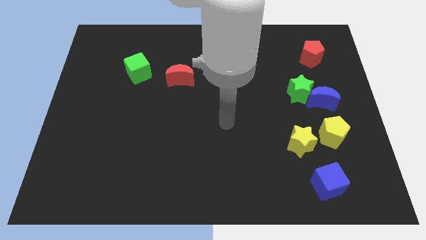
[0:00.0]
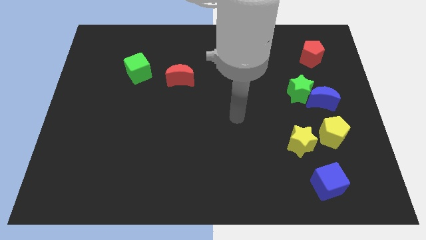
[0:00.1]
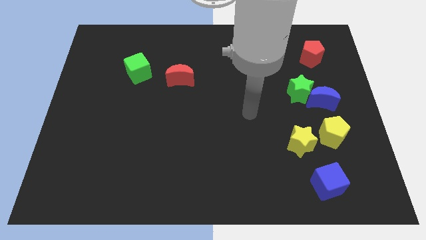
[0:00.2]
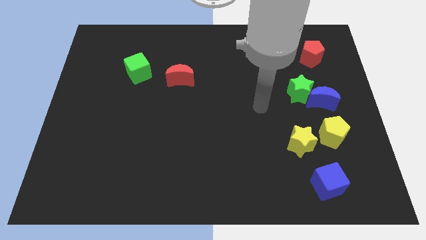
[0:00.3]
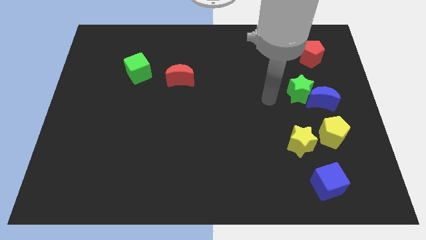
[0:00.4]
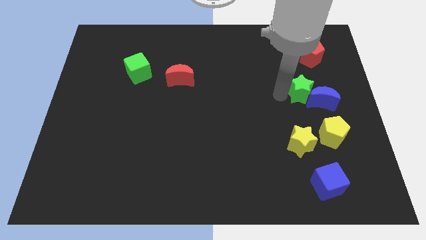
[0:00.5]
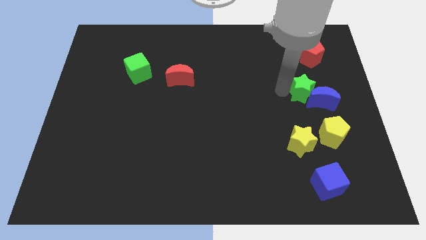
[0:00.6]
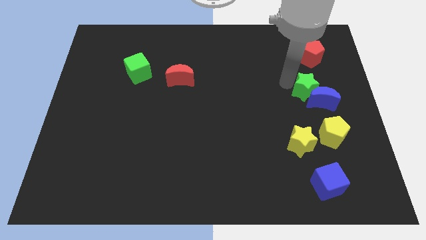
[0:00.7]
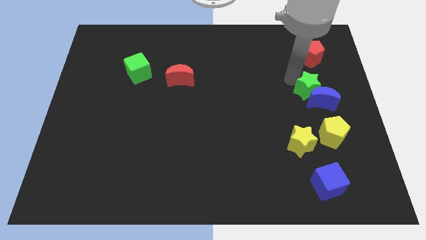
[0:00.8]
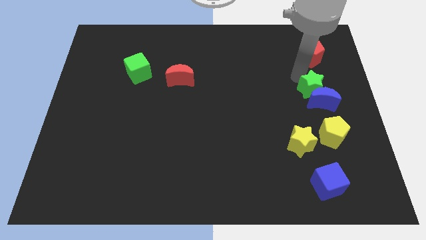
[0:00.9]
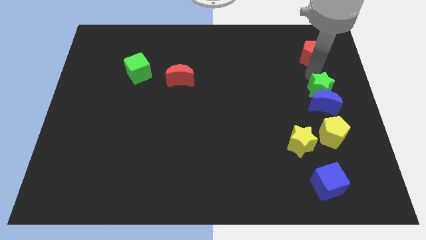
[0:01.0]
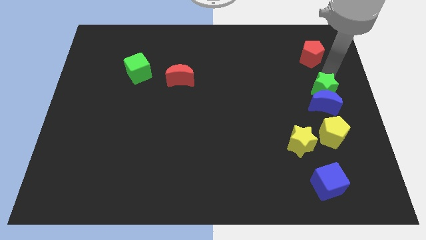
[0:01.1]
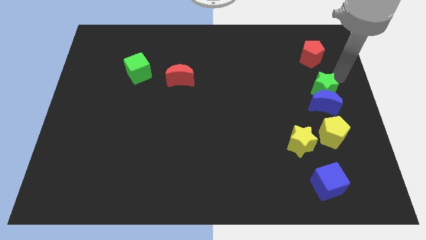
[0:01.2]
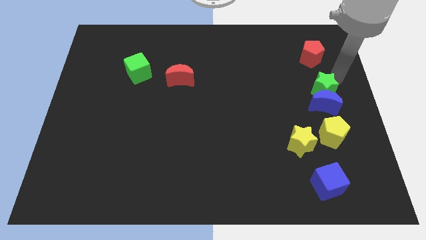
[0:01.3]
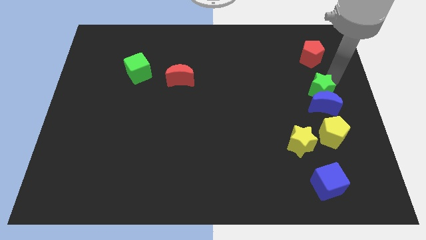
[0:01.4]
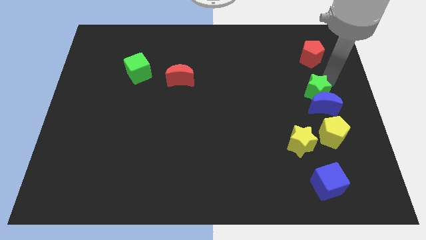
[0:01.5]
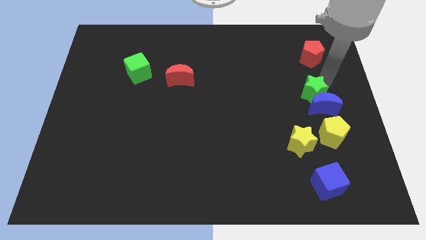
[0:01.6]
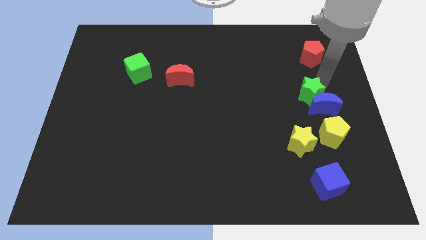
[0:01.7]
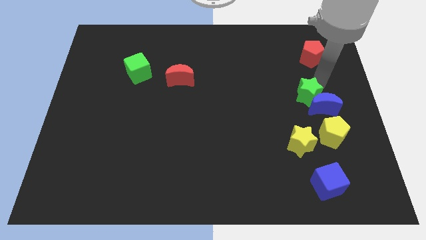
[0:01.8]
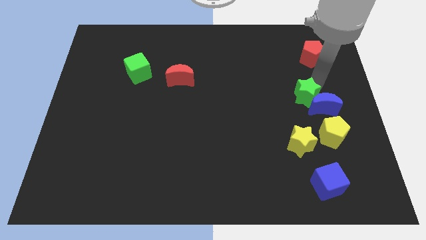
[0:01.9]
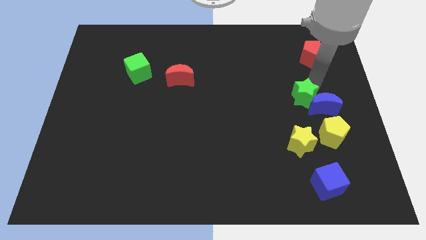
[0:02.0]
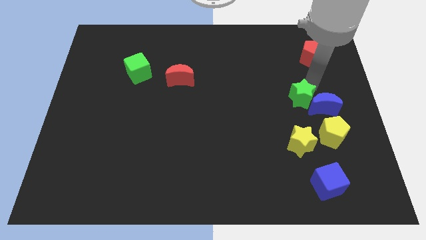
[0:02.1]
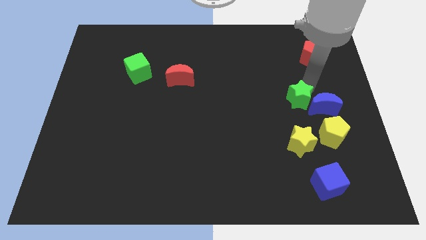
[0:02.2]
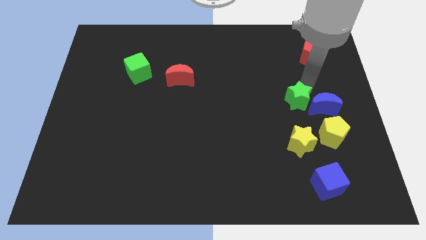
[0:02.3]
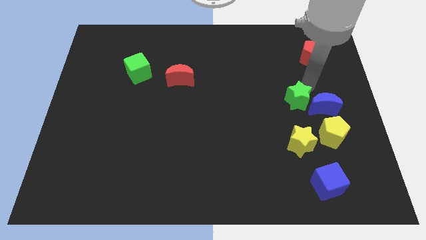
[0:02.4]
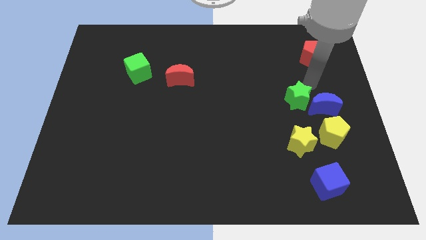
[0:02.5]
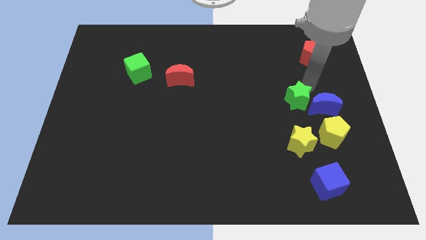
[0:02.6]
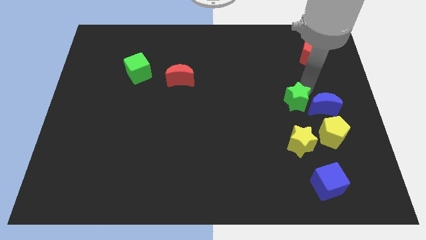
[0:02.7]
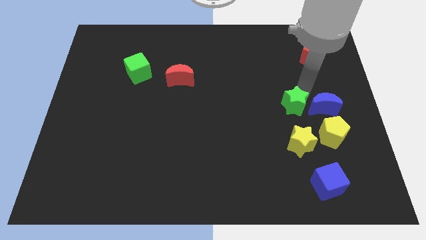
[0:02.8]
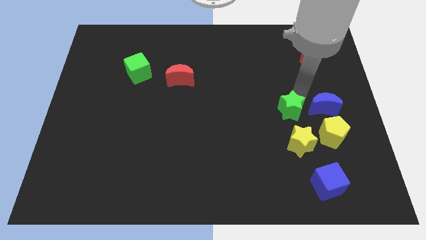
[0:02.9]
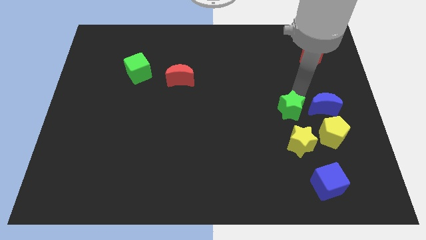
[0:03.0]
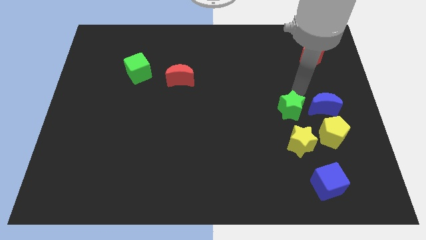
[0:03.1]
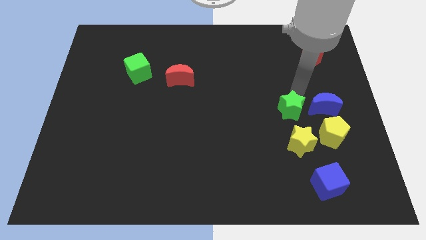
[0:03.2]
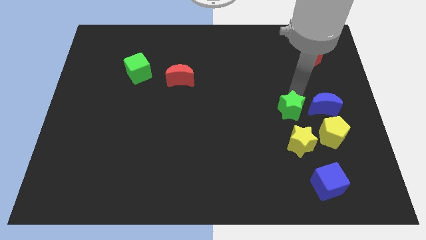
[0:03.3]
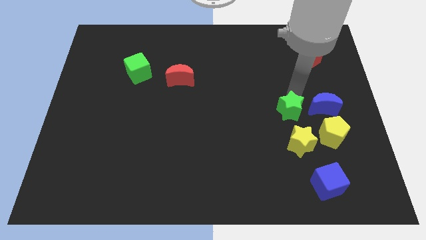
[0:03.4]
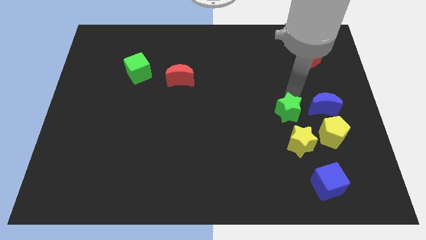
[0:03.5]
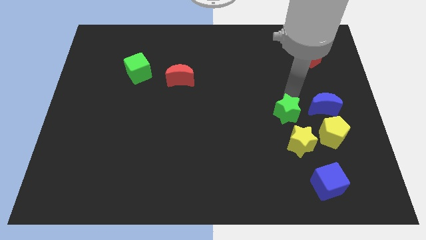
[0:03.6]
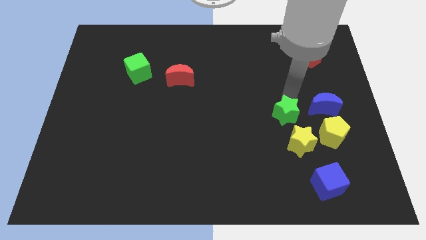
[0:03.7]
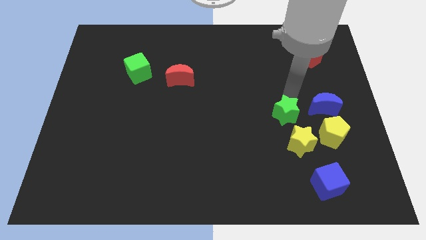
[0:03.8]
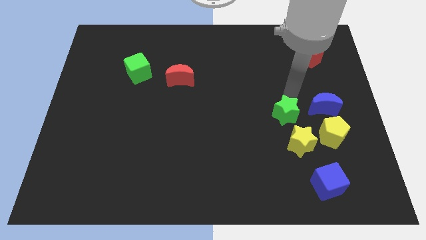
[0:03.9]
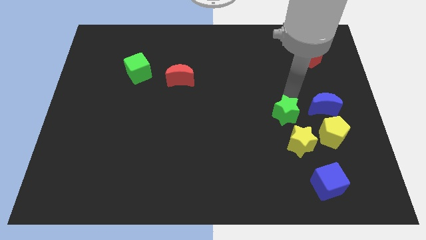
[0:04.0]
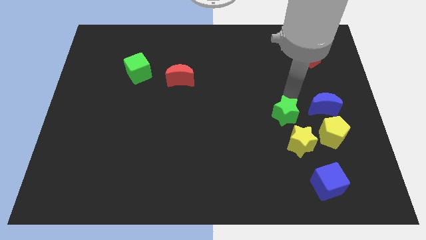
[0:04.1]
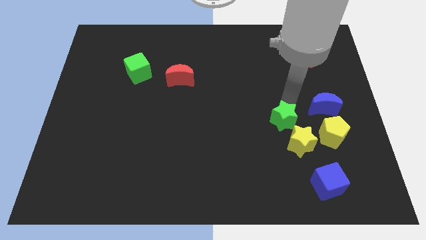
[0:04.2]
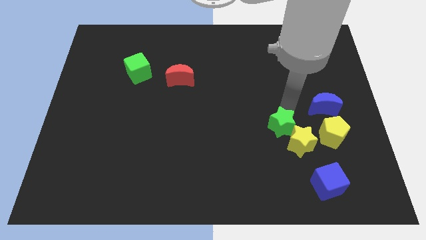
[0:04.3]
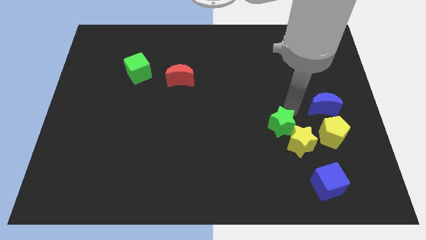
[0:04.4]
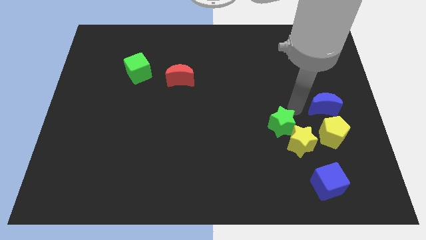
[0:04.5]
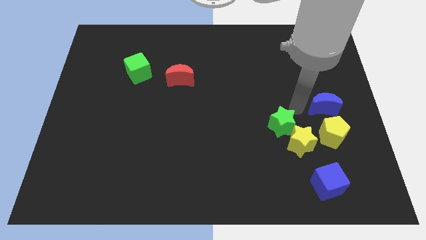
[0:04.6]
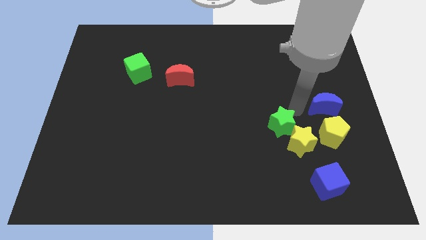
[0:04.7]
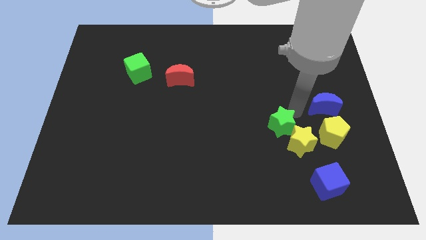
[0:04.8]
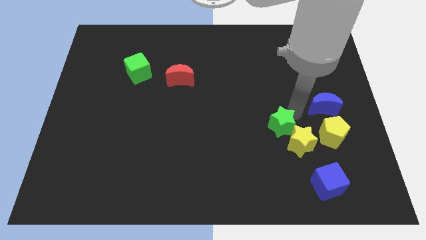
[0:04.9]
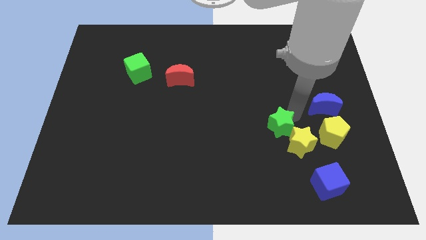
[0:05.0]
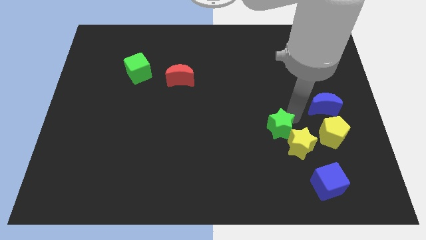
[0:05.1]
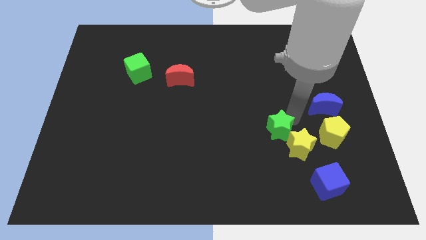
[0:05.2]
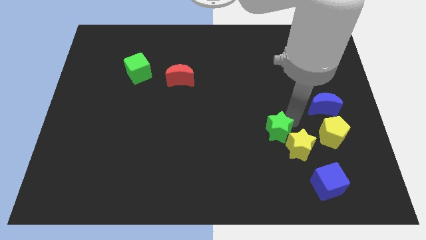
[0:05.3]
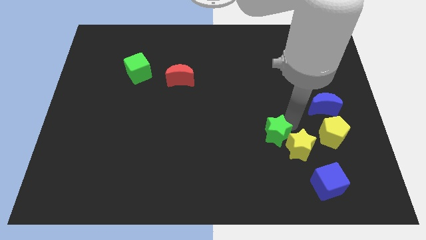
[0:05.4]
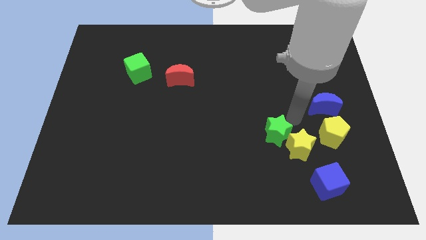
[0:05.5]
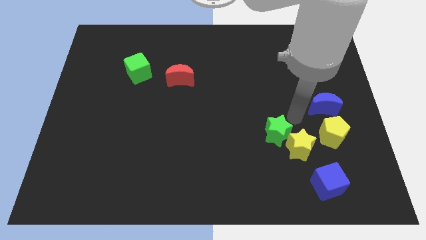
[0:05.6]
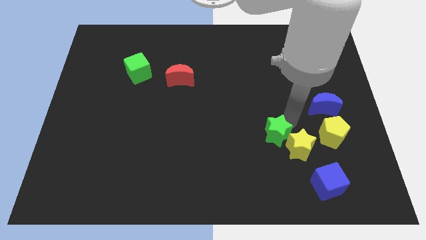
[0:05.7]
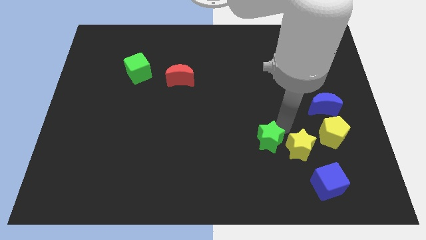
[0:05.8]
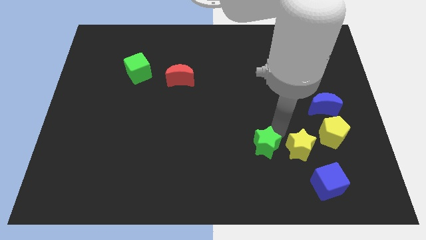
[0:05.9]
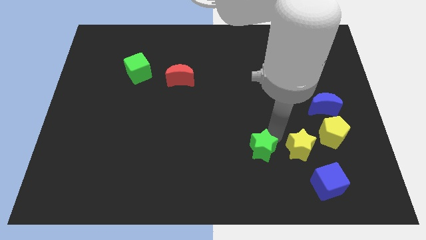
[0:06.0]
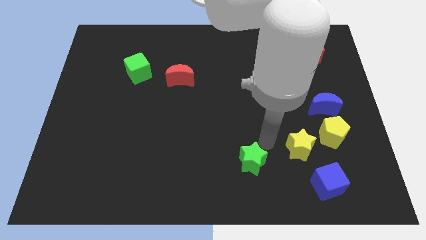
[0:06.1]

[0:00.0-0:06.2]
push the green star to the bottom side

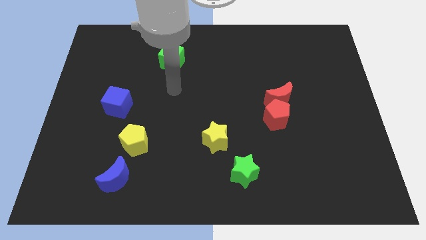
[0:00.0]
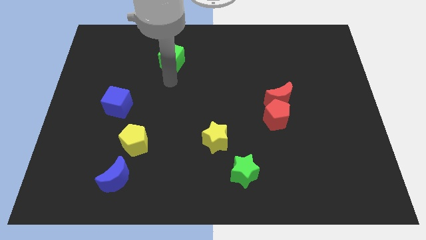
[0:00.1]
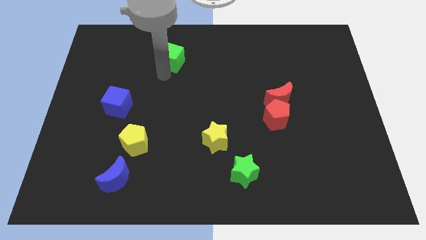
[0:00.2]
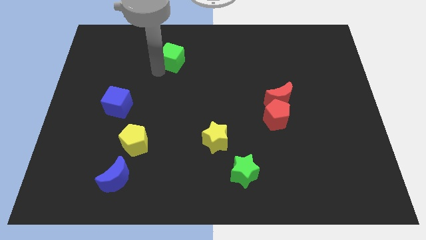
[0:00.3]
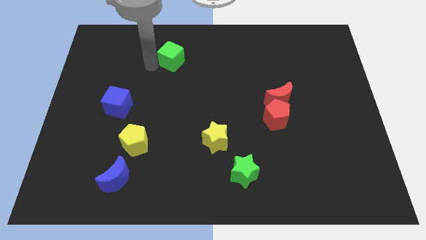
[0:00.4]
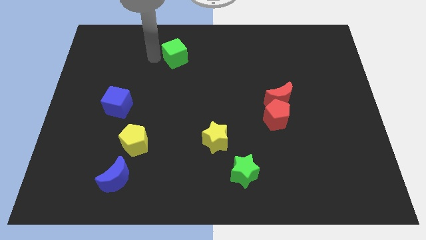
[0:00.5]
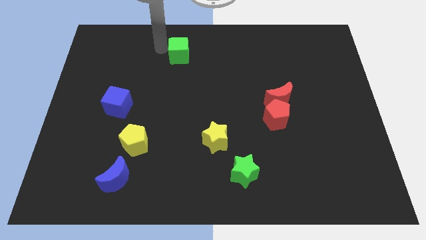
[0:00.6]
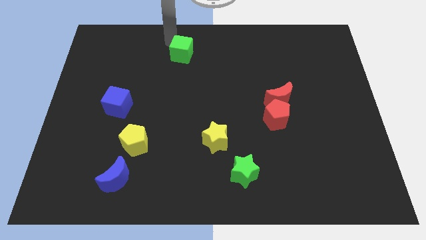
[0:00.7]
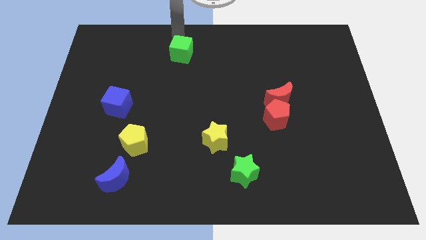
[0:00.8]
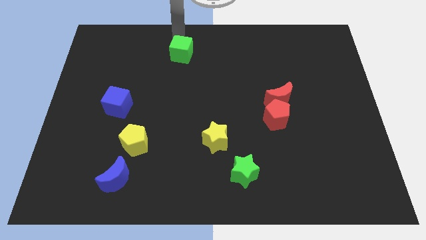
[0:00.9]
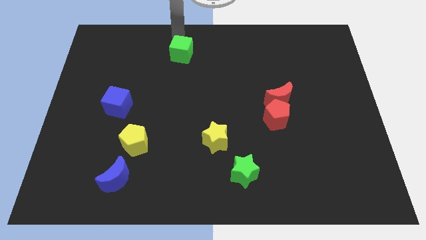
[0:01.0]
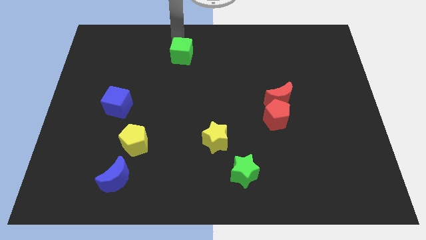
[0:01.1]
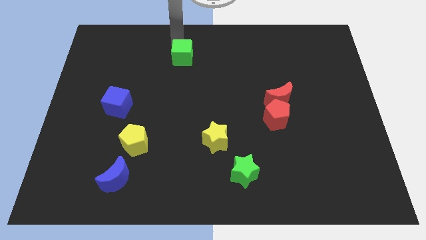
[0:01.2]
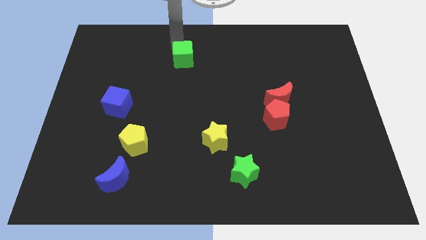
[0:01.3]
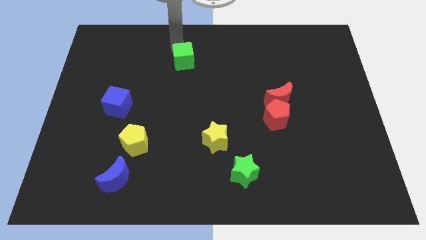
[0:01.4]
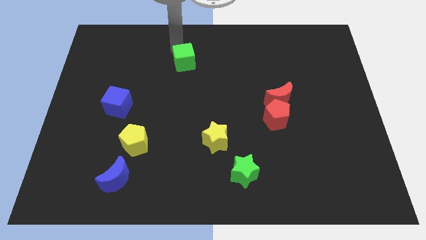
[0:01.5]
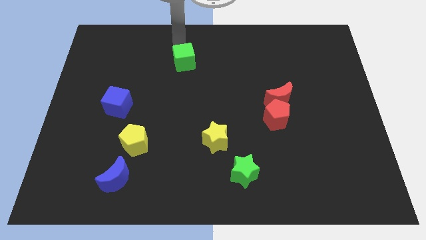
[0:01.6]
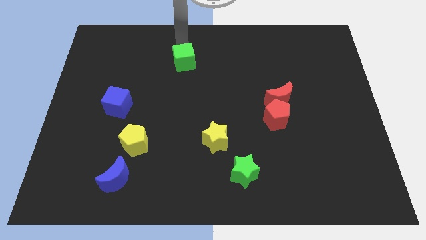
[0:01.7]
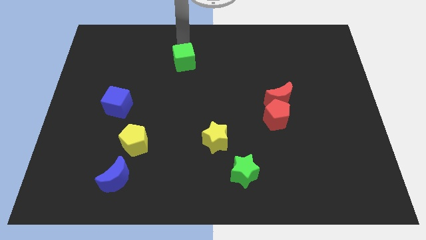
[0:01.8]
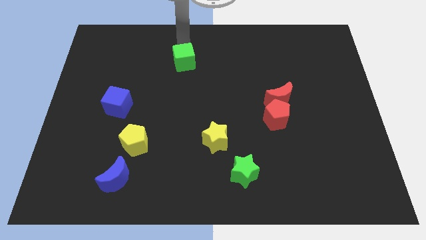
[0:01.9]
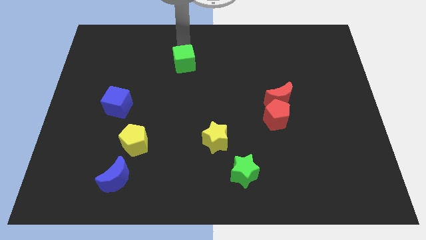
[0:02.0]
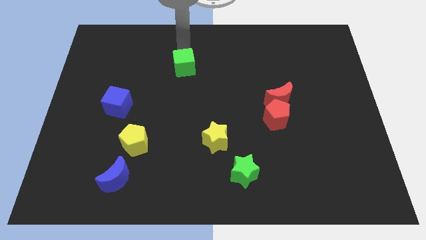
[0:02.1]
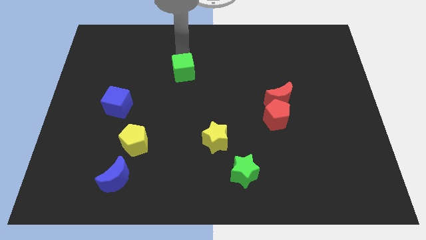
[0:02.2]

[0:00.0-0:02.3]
move the green cube to the middle
